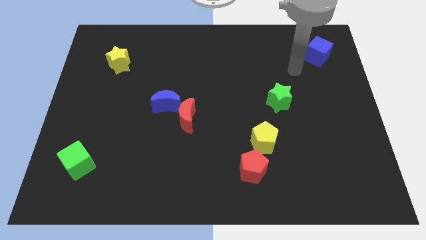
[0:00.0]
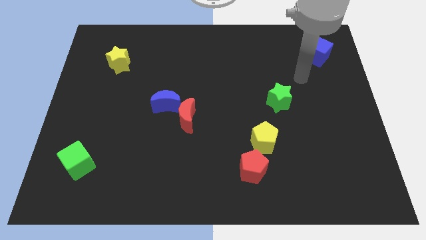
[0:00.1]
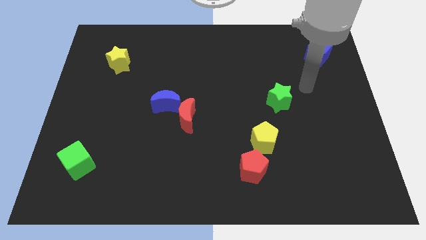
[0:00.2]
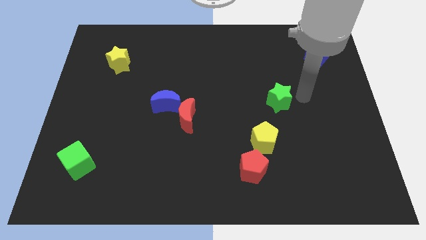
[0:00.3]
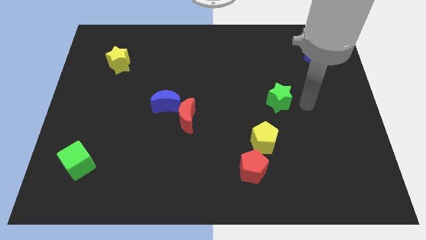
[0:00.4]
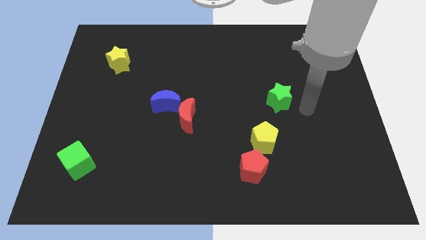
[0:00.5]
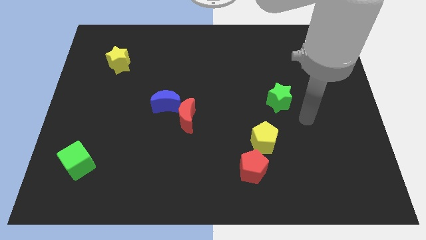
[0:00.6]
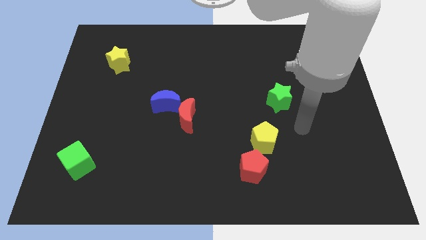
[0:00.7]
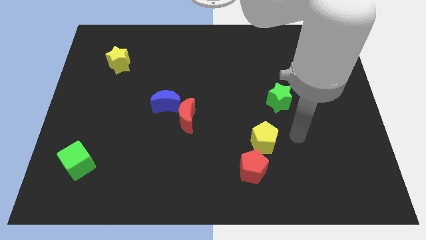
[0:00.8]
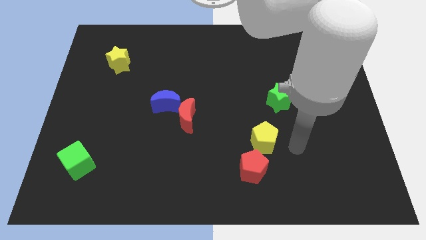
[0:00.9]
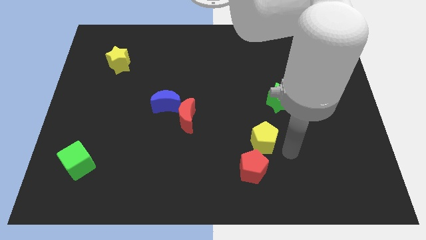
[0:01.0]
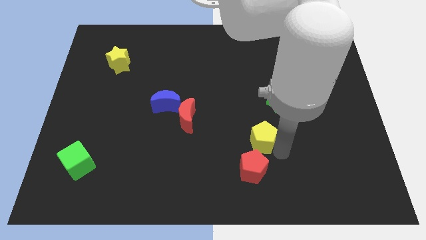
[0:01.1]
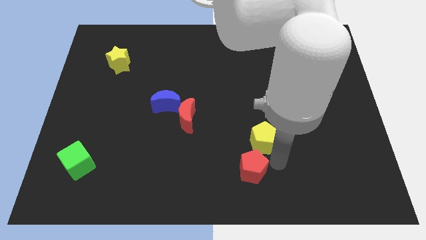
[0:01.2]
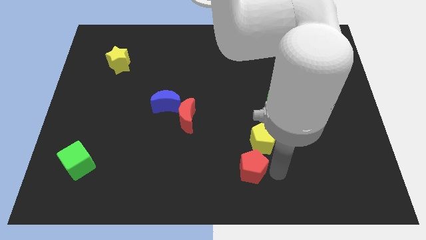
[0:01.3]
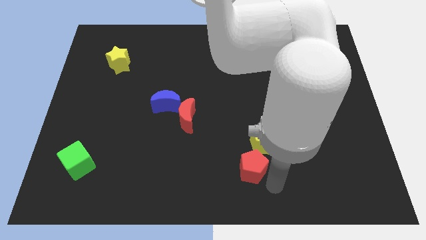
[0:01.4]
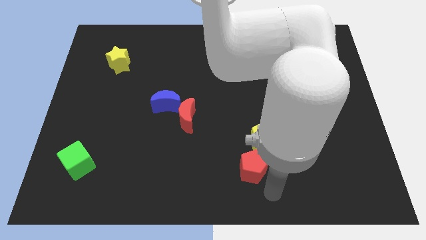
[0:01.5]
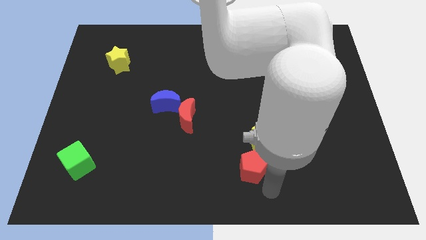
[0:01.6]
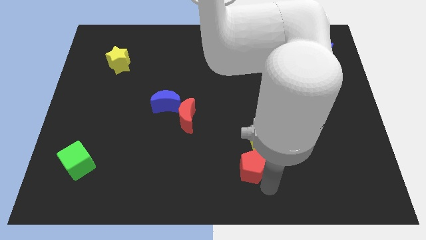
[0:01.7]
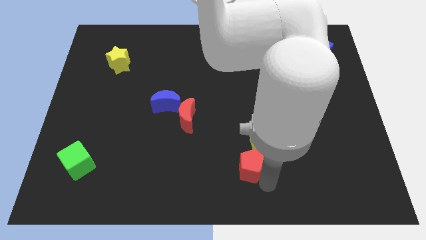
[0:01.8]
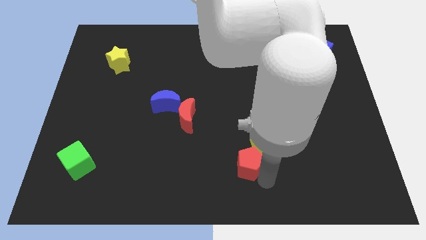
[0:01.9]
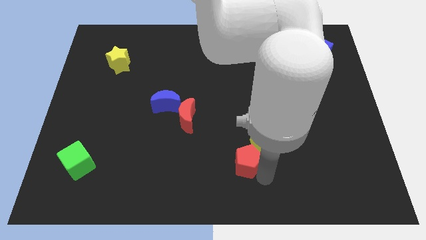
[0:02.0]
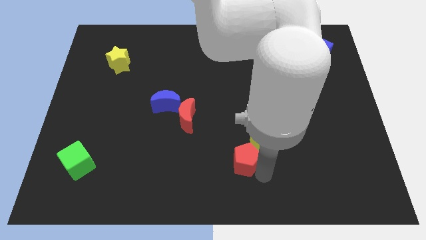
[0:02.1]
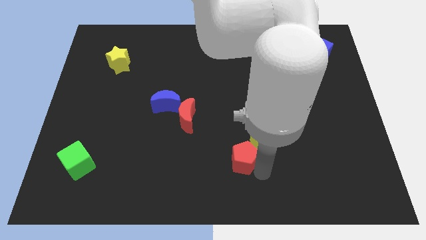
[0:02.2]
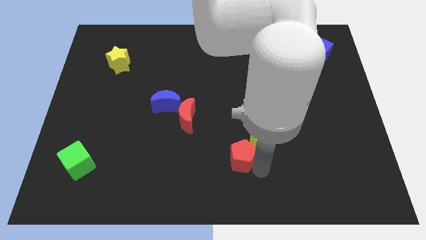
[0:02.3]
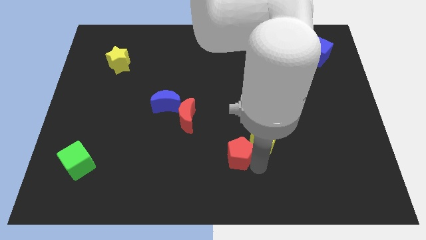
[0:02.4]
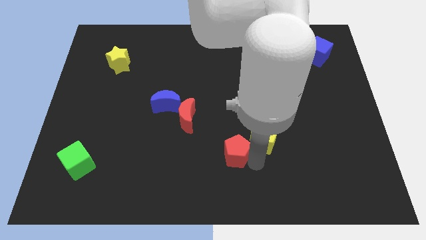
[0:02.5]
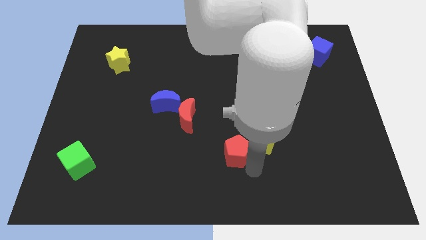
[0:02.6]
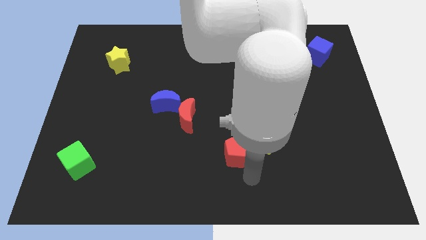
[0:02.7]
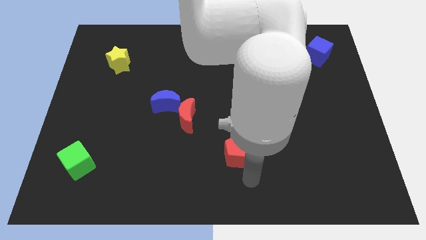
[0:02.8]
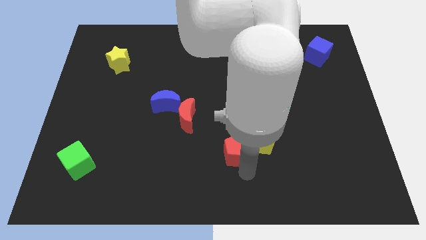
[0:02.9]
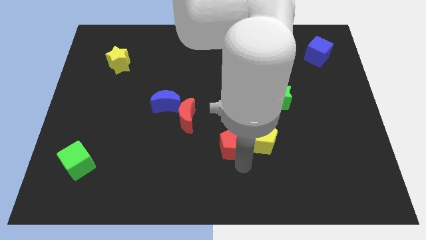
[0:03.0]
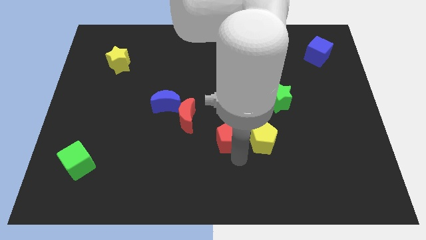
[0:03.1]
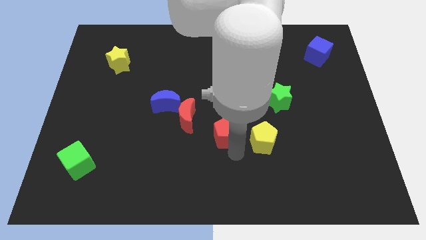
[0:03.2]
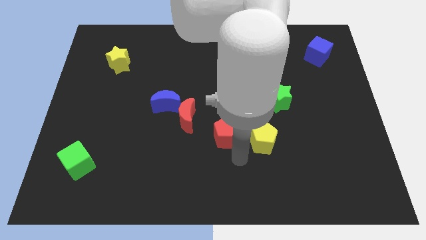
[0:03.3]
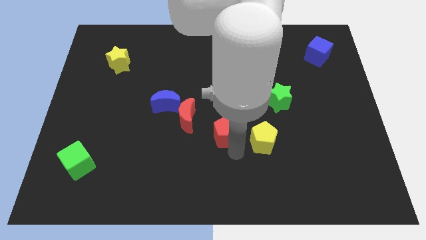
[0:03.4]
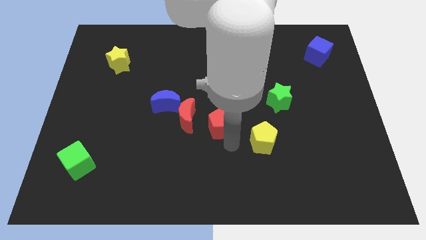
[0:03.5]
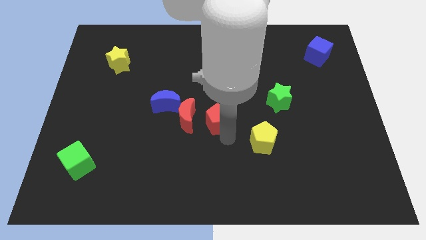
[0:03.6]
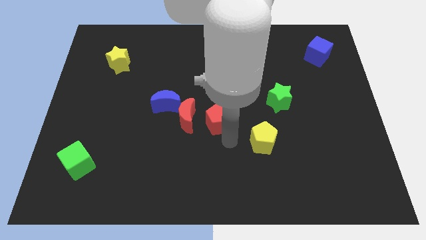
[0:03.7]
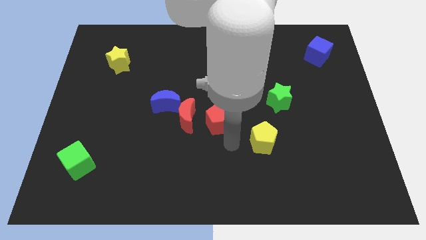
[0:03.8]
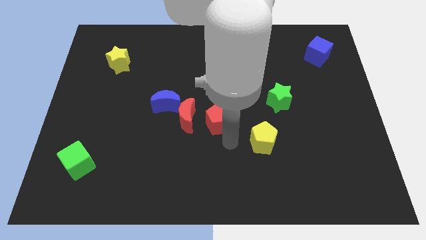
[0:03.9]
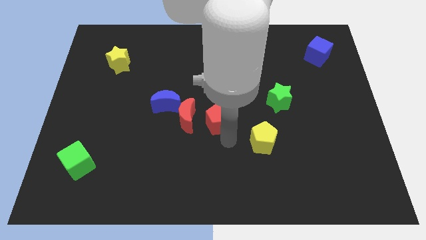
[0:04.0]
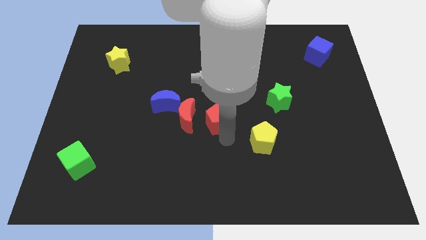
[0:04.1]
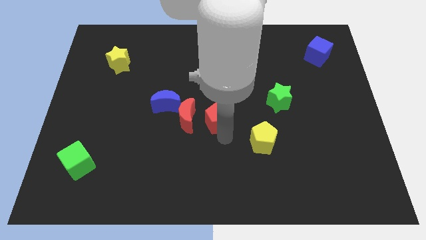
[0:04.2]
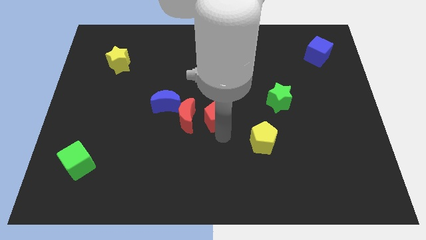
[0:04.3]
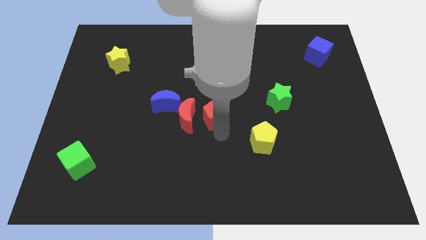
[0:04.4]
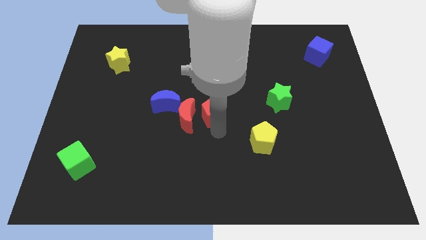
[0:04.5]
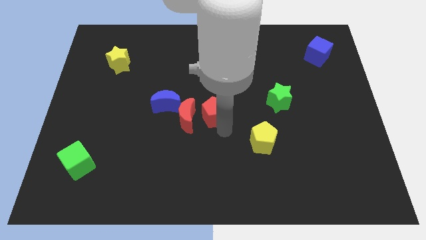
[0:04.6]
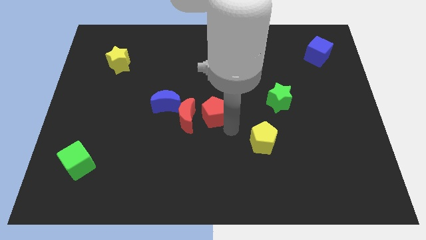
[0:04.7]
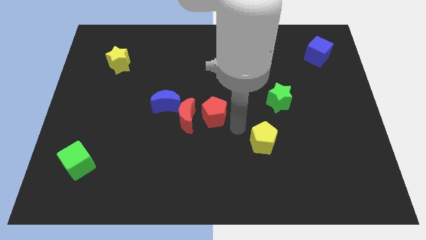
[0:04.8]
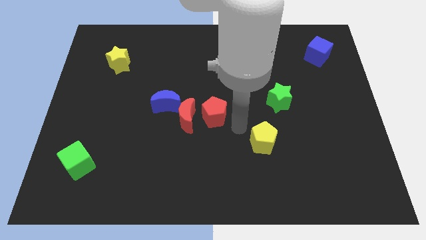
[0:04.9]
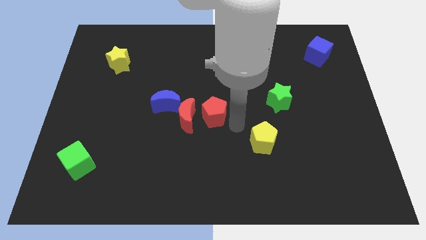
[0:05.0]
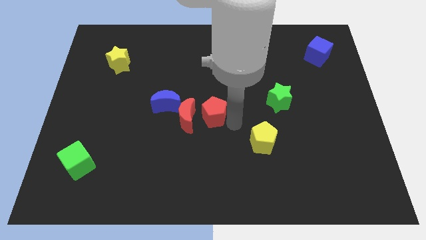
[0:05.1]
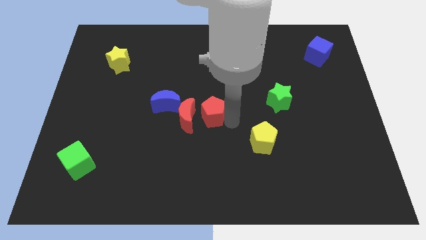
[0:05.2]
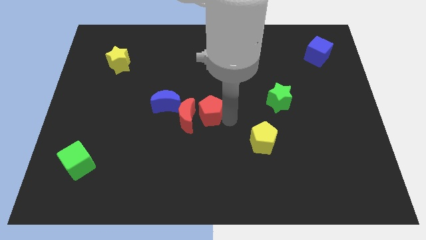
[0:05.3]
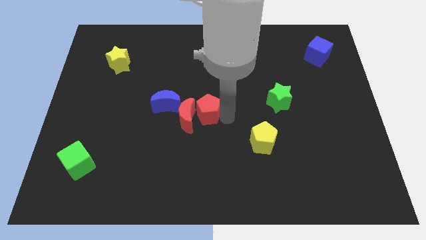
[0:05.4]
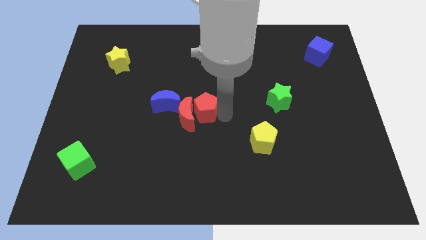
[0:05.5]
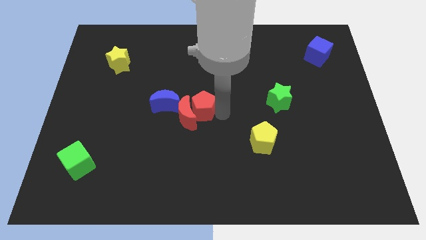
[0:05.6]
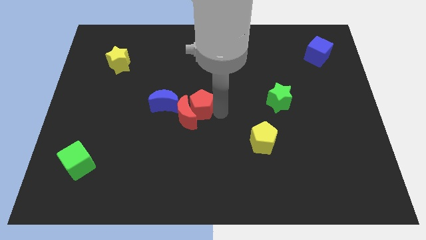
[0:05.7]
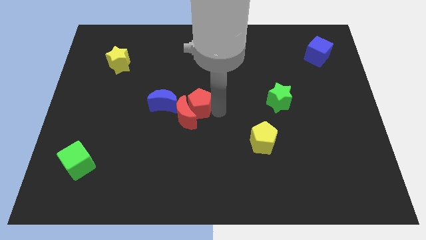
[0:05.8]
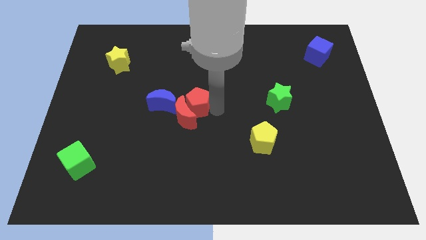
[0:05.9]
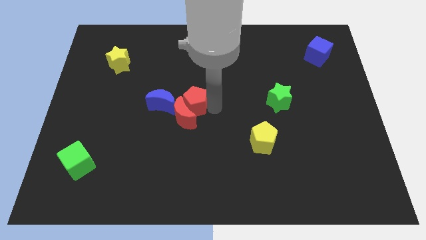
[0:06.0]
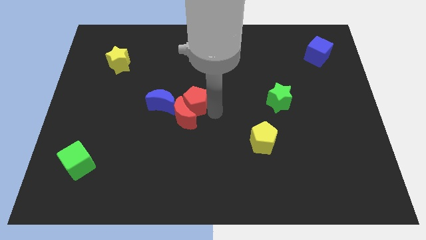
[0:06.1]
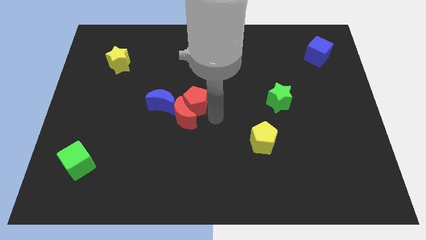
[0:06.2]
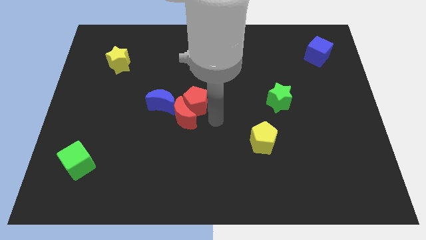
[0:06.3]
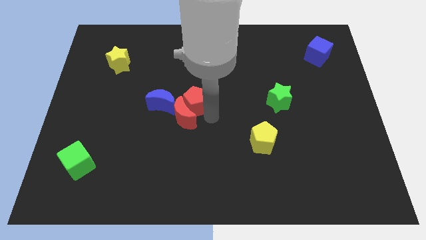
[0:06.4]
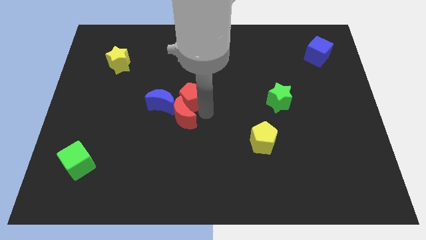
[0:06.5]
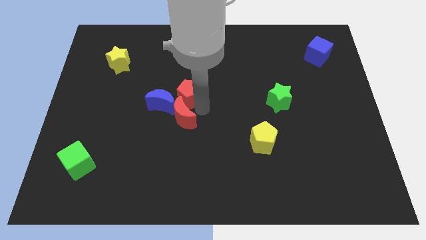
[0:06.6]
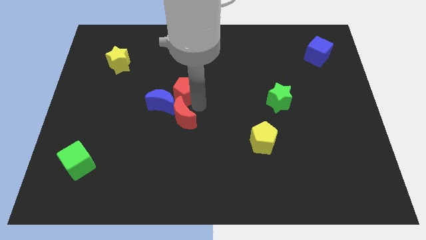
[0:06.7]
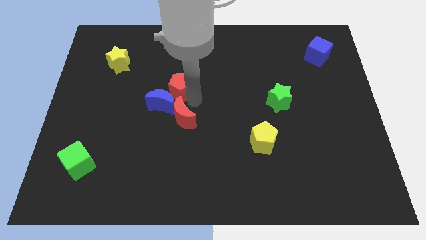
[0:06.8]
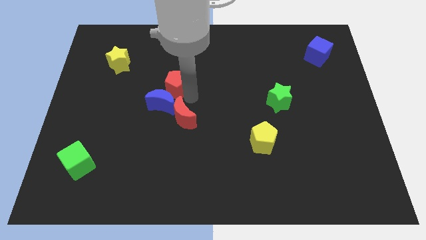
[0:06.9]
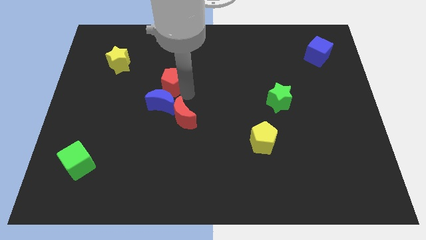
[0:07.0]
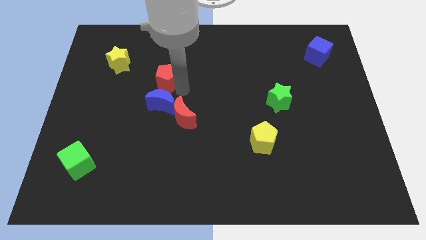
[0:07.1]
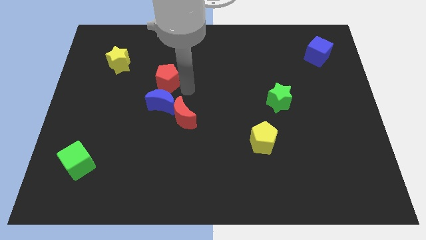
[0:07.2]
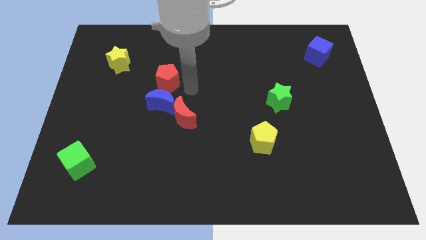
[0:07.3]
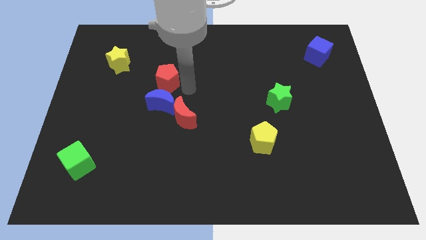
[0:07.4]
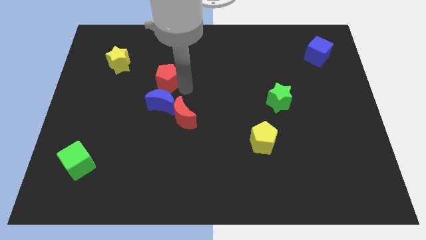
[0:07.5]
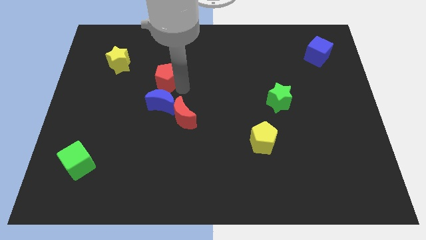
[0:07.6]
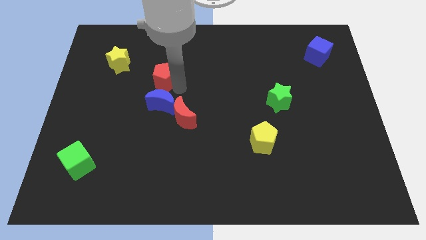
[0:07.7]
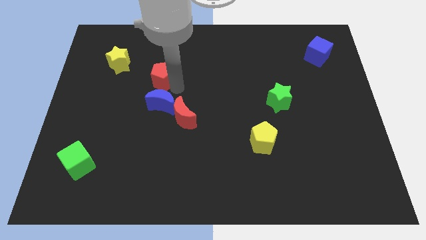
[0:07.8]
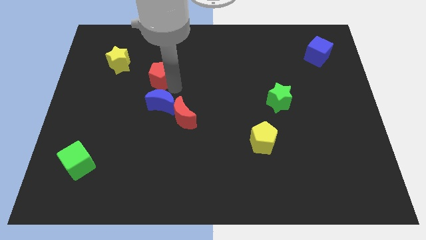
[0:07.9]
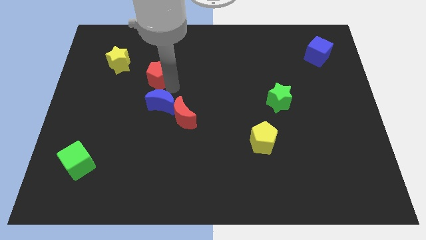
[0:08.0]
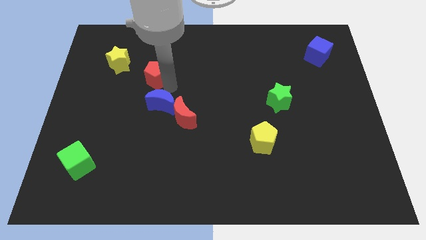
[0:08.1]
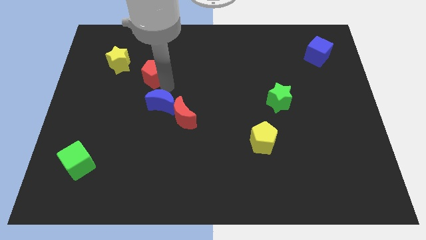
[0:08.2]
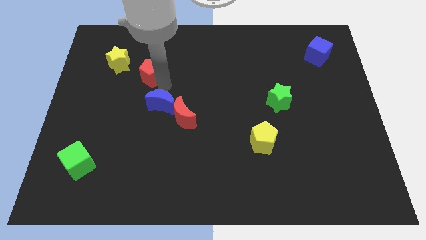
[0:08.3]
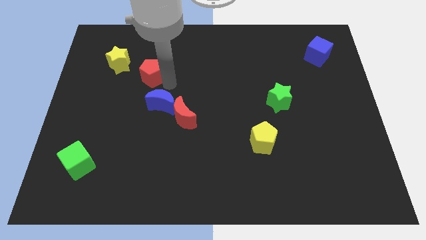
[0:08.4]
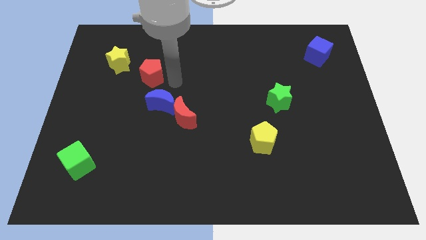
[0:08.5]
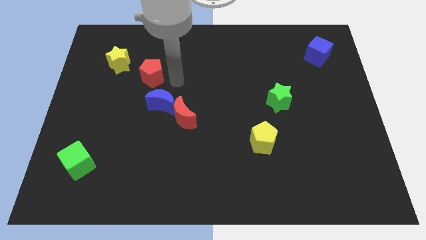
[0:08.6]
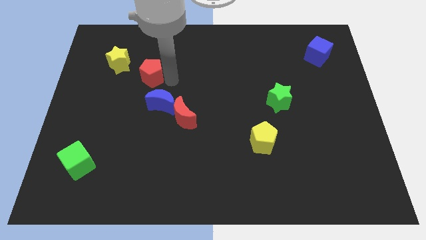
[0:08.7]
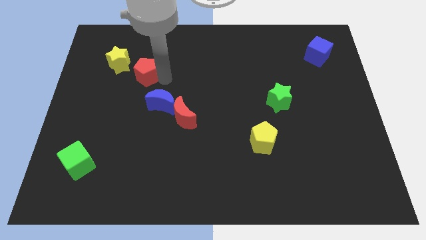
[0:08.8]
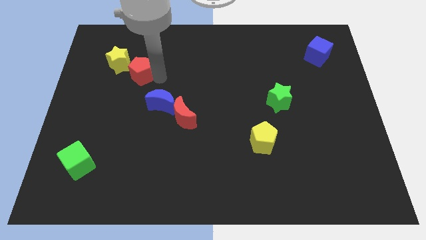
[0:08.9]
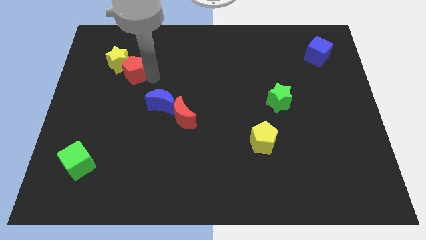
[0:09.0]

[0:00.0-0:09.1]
push the red pentagon to the yellow star
